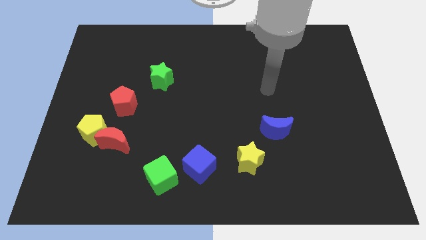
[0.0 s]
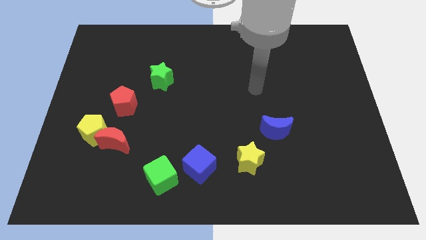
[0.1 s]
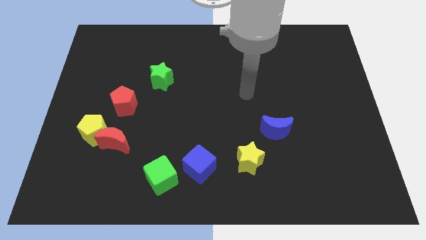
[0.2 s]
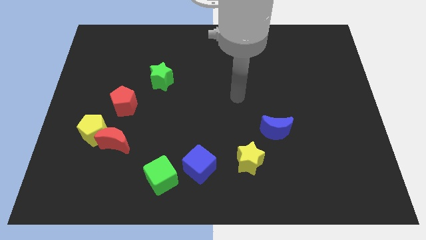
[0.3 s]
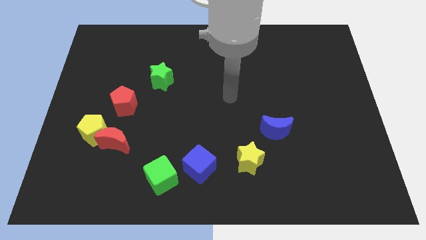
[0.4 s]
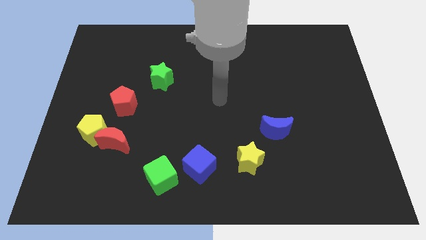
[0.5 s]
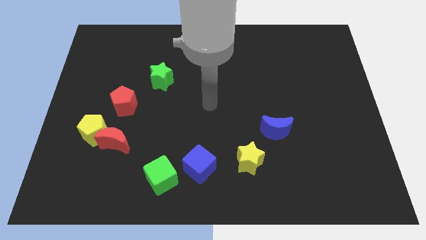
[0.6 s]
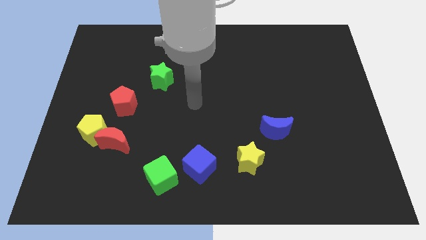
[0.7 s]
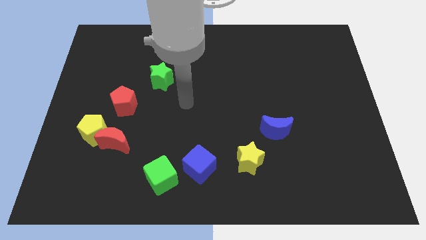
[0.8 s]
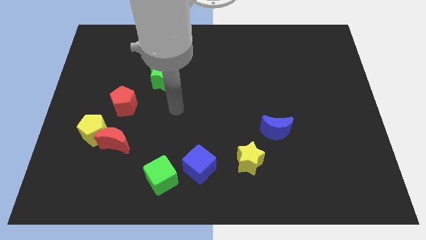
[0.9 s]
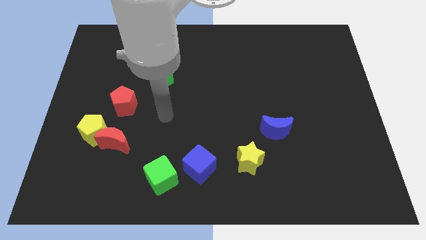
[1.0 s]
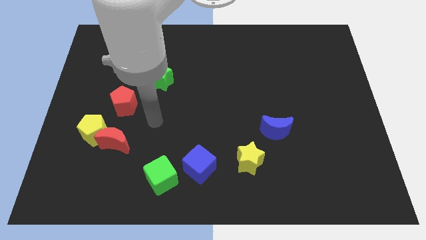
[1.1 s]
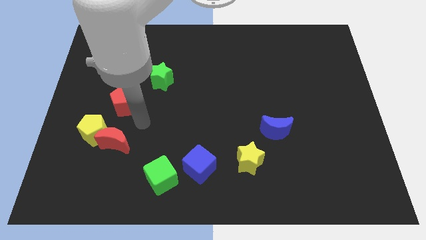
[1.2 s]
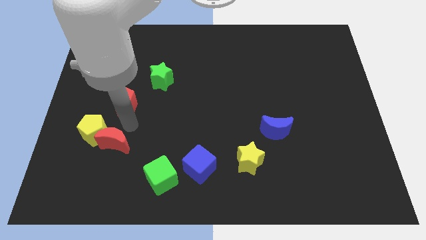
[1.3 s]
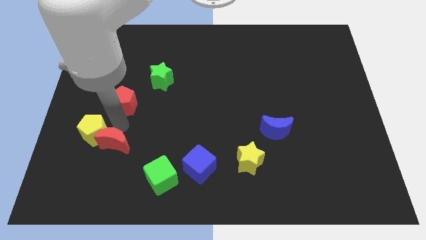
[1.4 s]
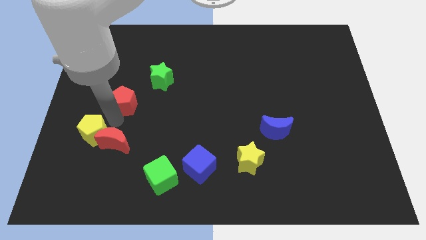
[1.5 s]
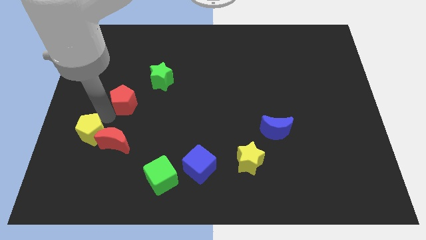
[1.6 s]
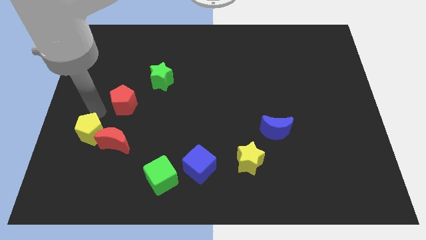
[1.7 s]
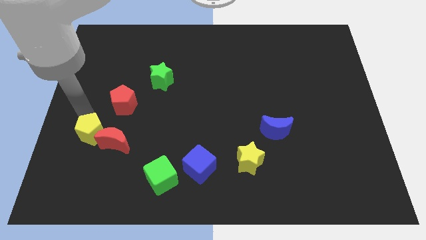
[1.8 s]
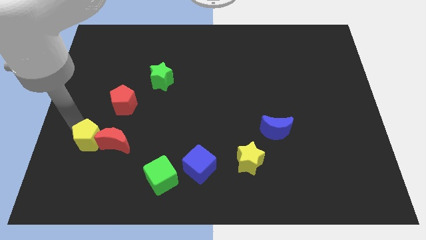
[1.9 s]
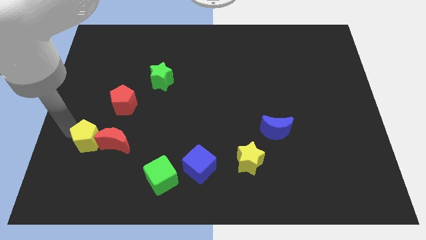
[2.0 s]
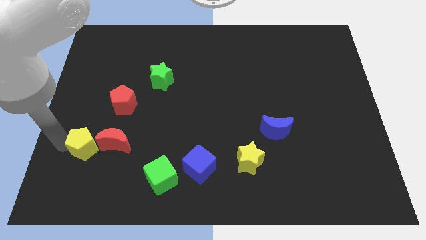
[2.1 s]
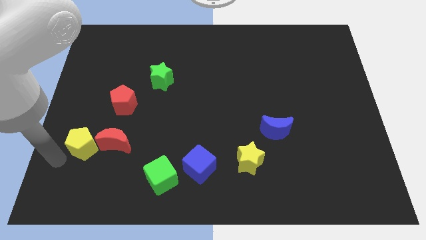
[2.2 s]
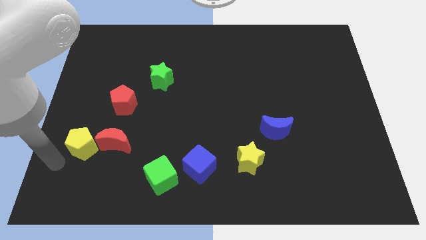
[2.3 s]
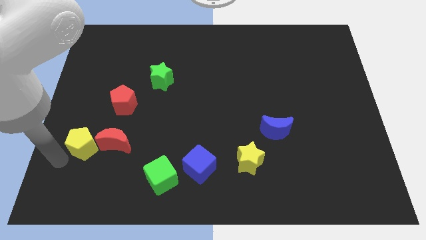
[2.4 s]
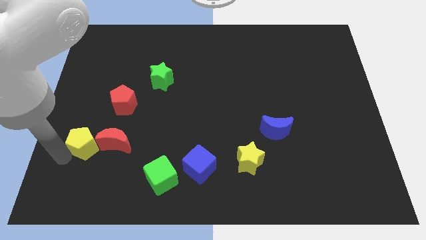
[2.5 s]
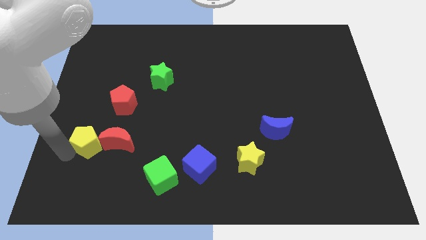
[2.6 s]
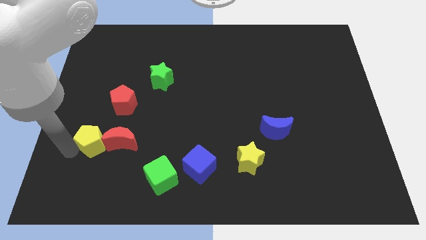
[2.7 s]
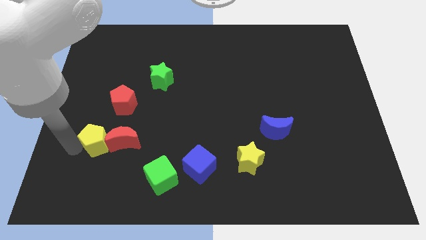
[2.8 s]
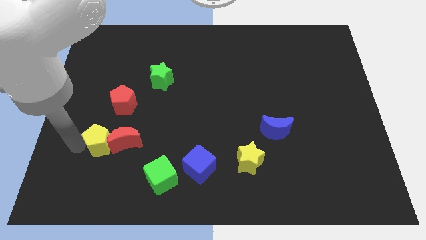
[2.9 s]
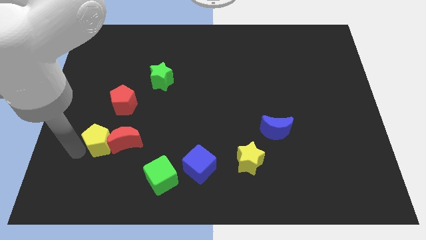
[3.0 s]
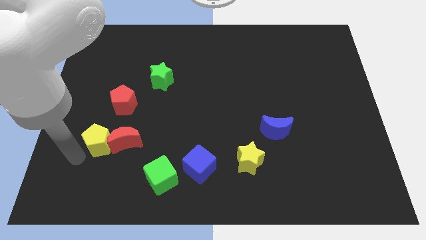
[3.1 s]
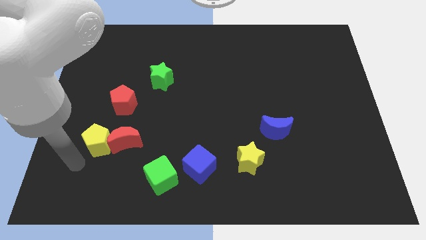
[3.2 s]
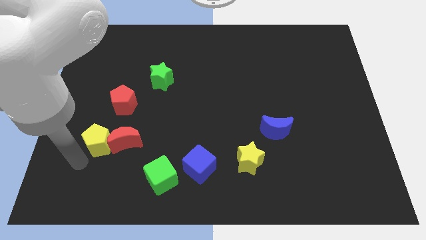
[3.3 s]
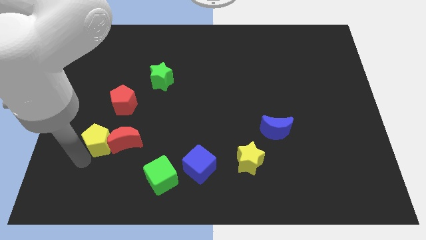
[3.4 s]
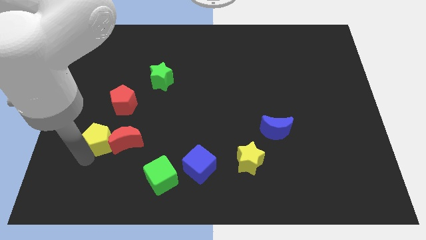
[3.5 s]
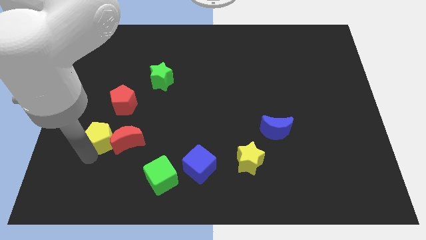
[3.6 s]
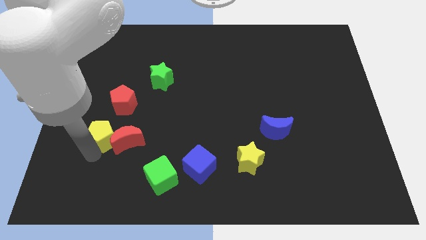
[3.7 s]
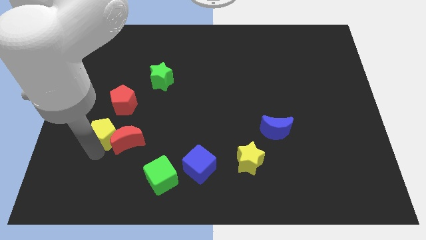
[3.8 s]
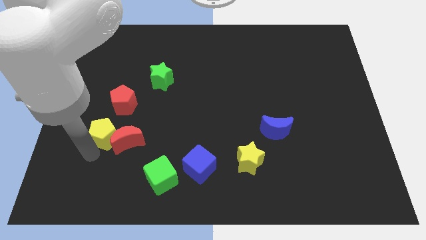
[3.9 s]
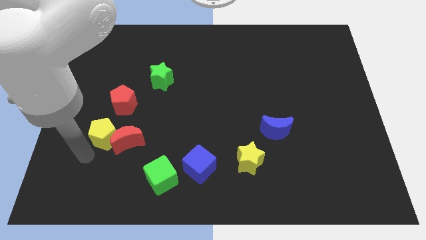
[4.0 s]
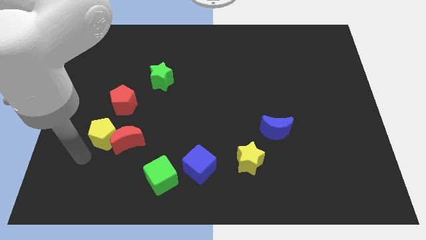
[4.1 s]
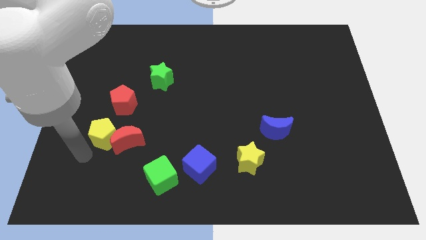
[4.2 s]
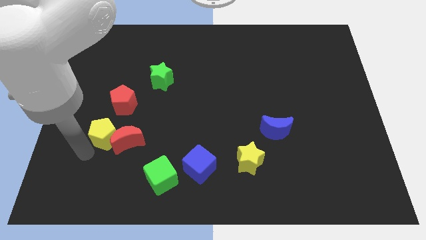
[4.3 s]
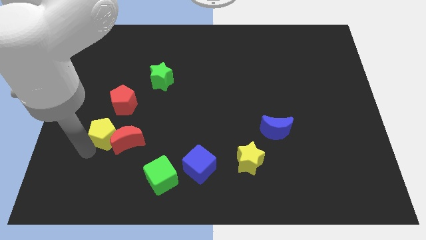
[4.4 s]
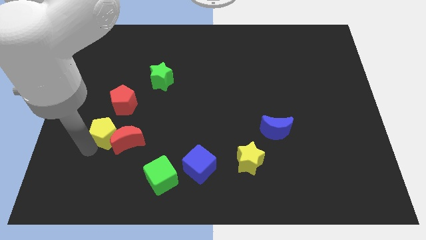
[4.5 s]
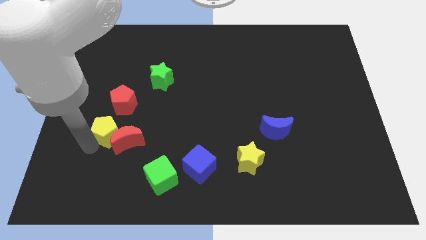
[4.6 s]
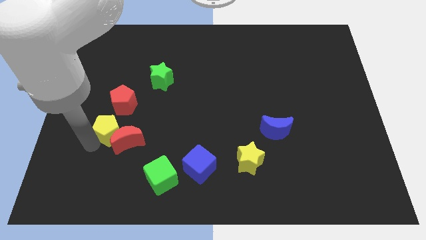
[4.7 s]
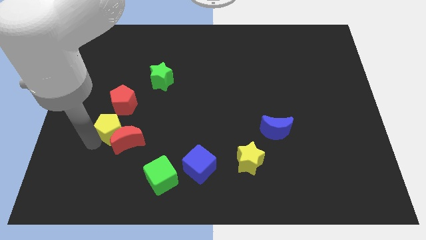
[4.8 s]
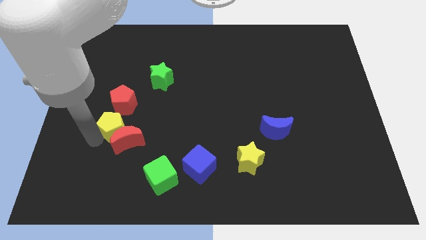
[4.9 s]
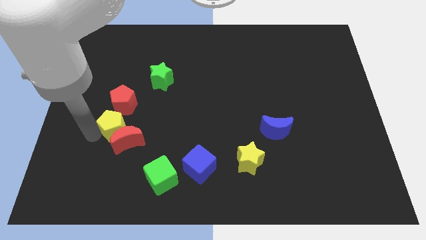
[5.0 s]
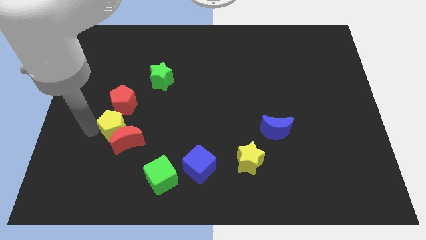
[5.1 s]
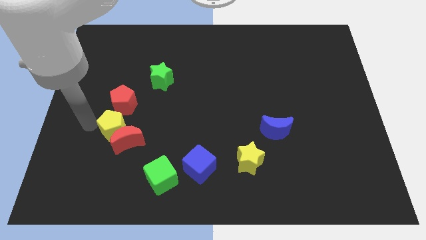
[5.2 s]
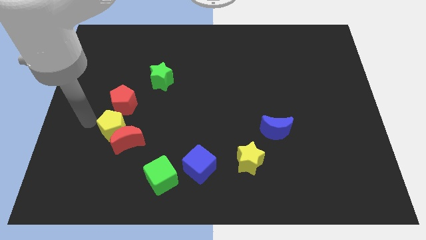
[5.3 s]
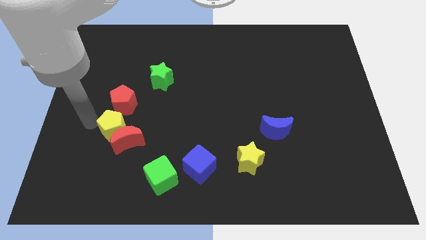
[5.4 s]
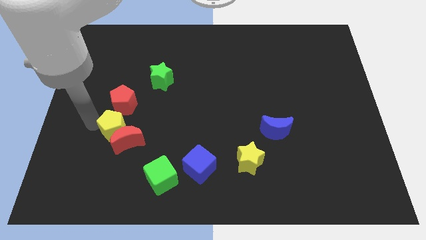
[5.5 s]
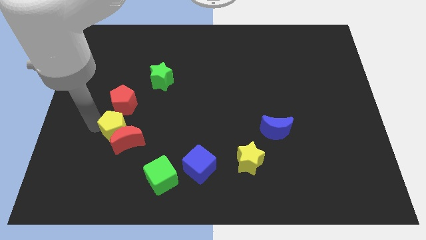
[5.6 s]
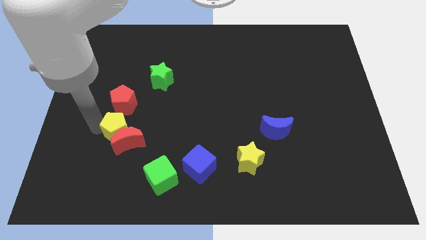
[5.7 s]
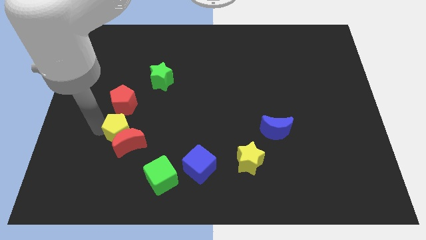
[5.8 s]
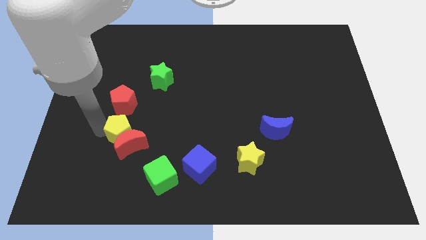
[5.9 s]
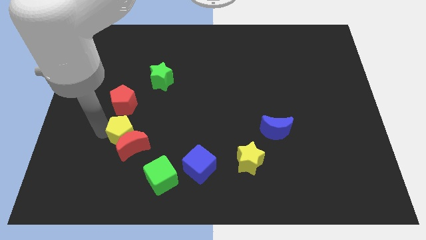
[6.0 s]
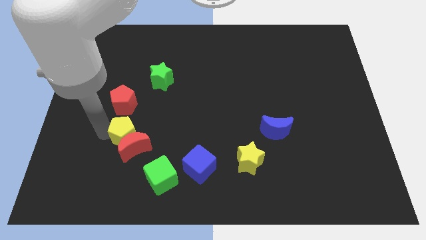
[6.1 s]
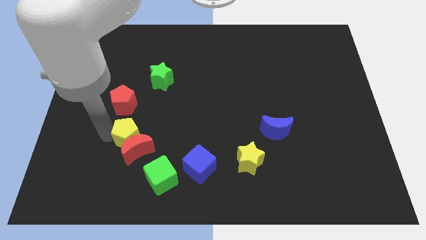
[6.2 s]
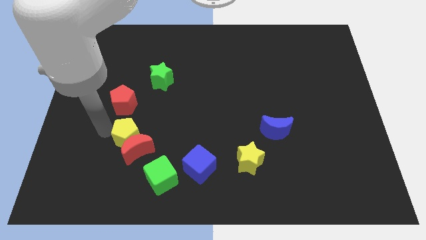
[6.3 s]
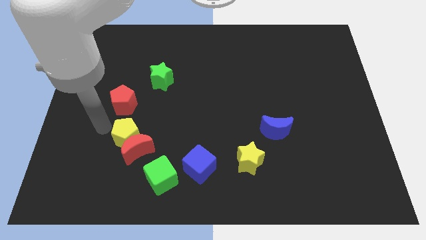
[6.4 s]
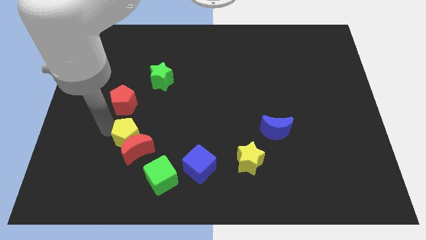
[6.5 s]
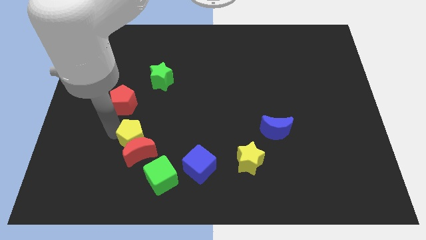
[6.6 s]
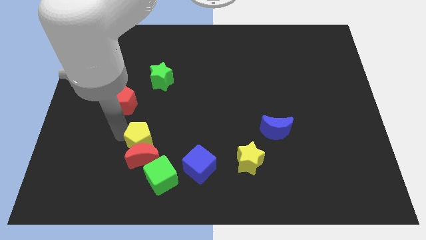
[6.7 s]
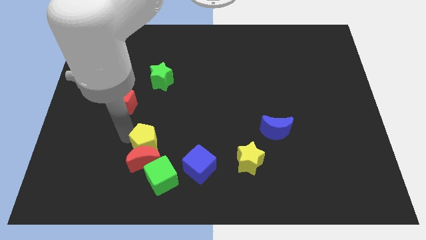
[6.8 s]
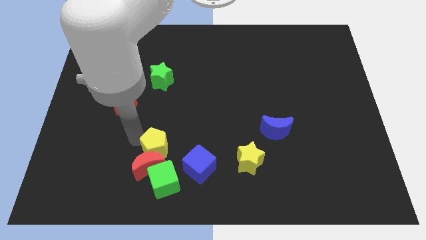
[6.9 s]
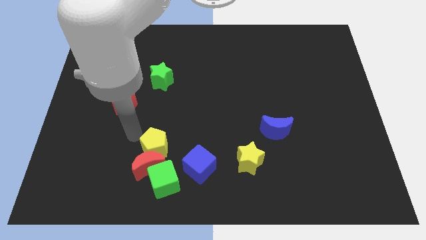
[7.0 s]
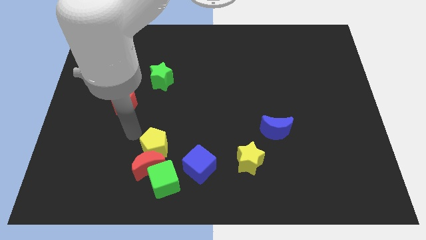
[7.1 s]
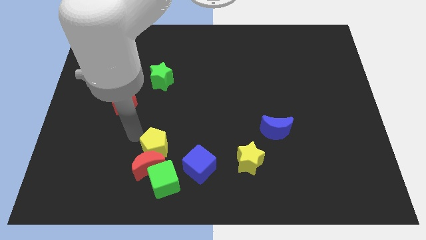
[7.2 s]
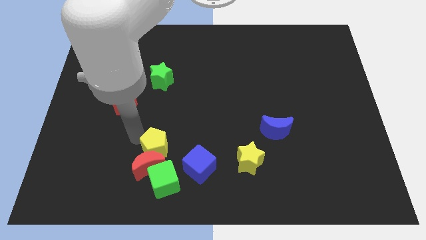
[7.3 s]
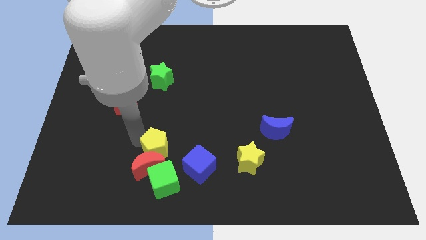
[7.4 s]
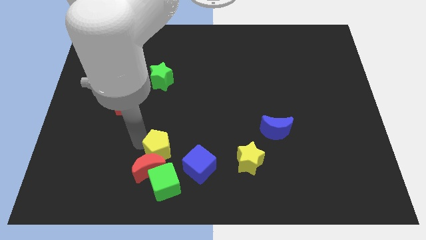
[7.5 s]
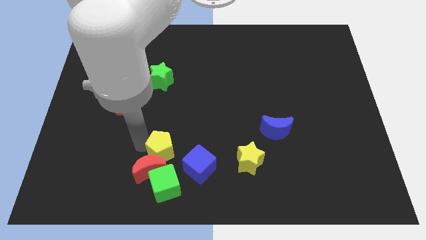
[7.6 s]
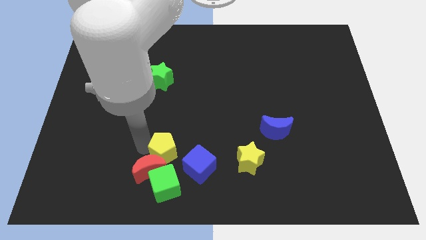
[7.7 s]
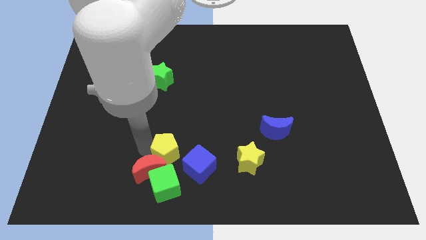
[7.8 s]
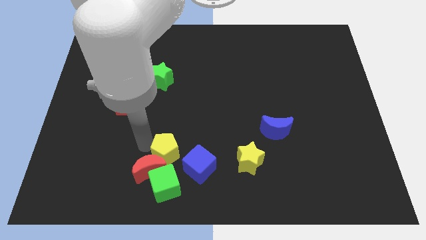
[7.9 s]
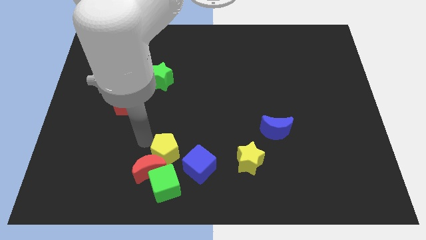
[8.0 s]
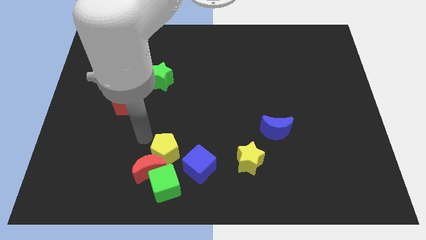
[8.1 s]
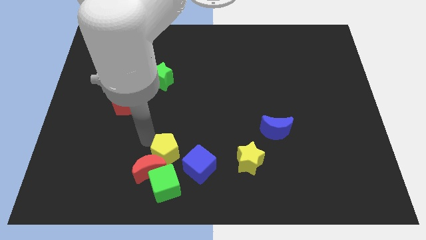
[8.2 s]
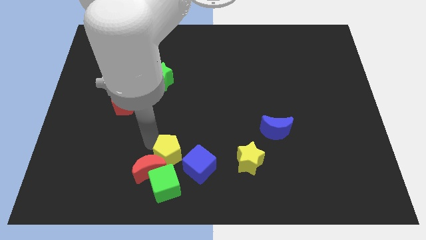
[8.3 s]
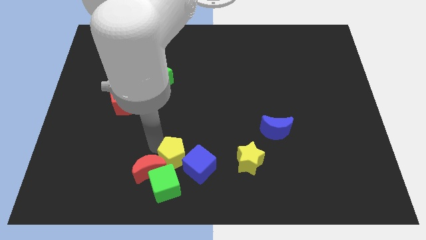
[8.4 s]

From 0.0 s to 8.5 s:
move the yellow pentagon close to the blue cube
